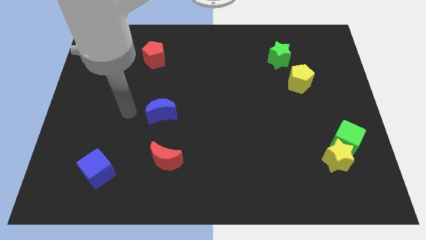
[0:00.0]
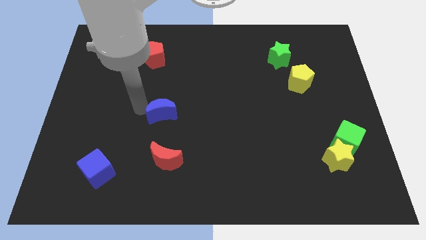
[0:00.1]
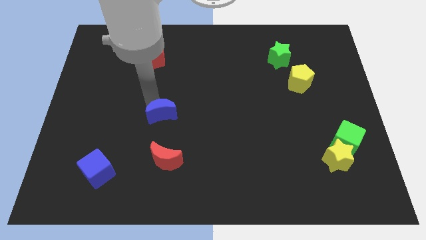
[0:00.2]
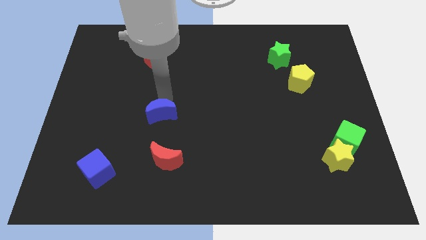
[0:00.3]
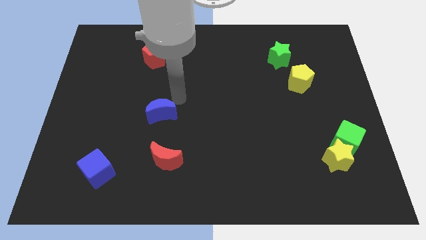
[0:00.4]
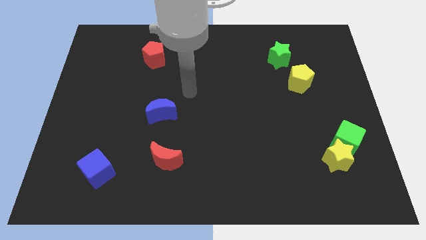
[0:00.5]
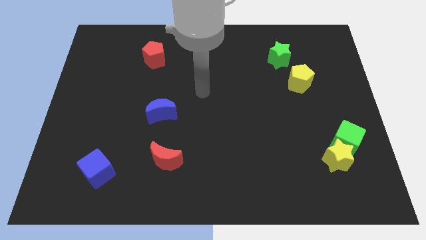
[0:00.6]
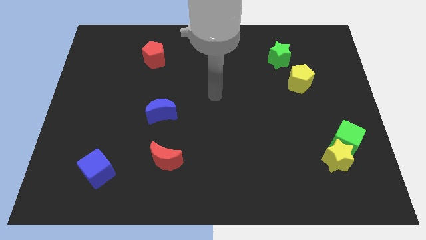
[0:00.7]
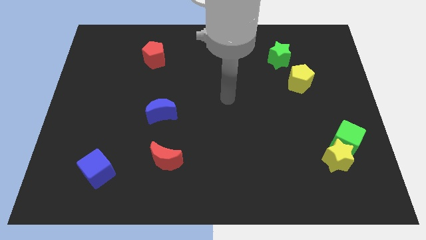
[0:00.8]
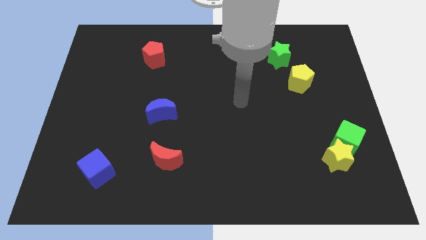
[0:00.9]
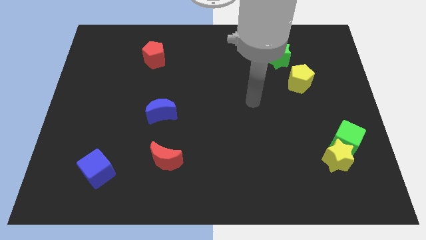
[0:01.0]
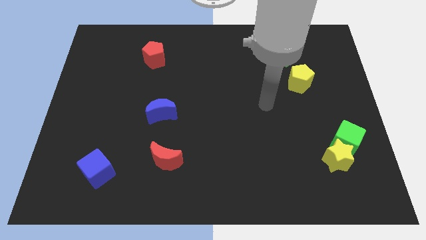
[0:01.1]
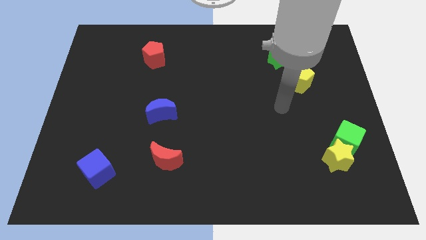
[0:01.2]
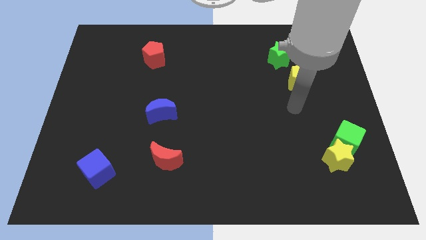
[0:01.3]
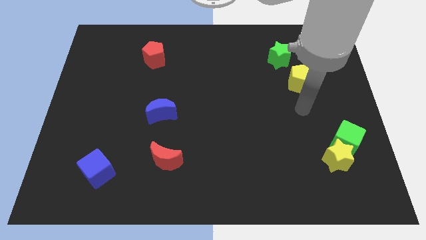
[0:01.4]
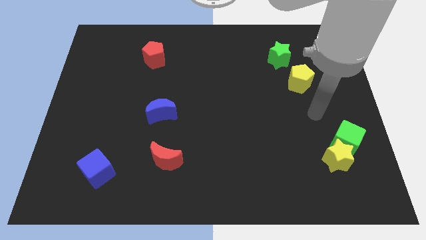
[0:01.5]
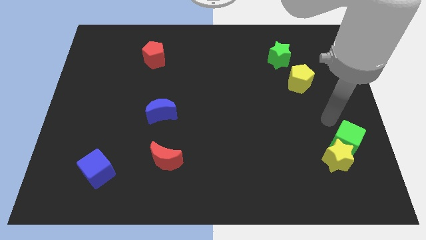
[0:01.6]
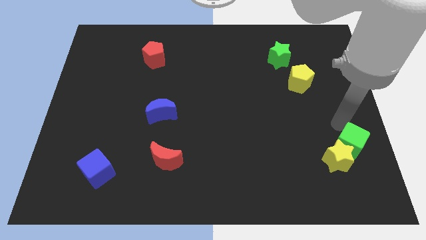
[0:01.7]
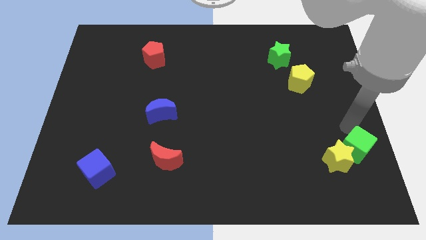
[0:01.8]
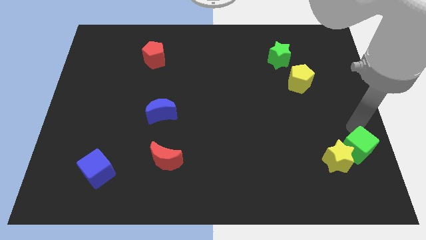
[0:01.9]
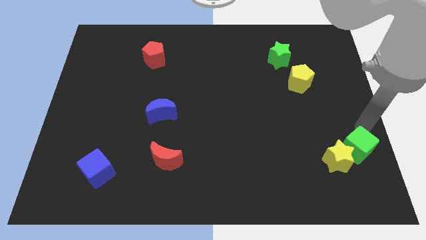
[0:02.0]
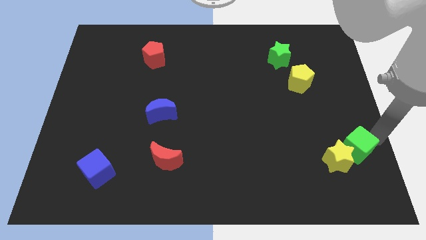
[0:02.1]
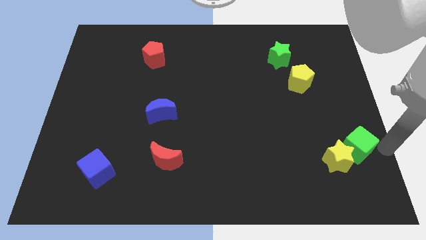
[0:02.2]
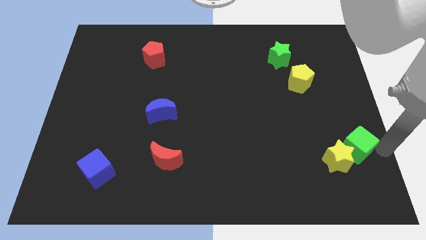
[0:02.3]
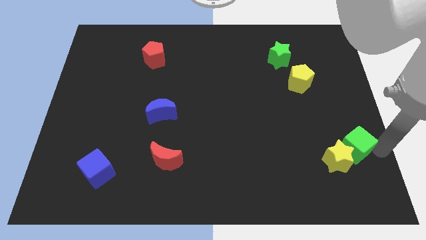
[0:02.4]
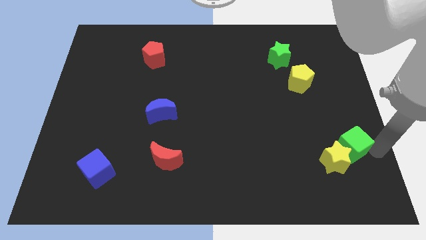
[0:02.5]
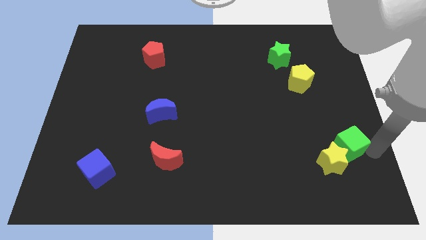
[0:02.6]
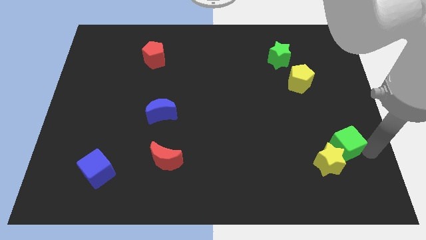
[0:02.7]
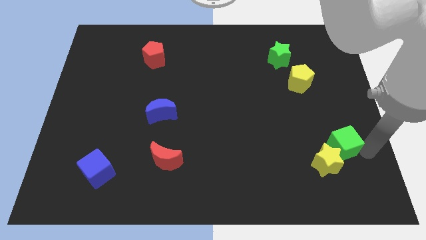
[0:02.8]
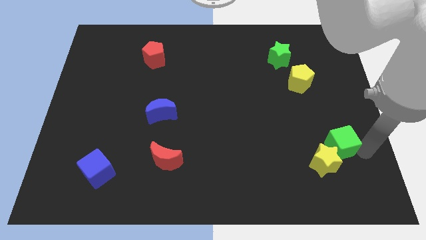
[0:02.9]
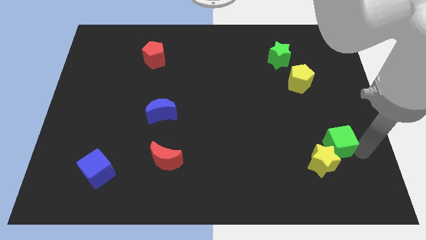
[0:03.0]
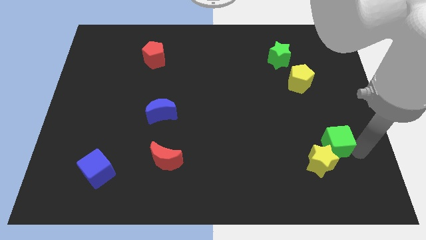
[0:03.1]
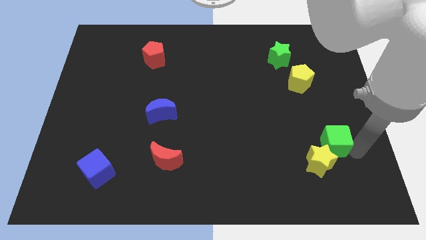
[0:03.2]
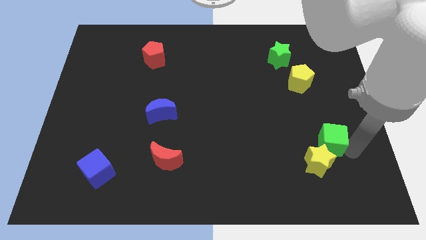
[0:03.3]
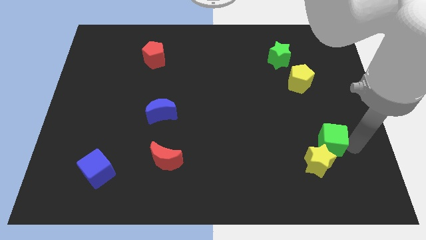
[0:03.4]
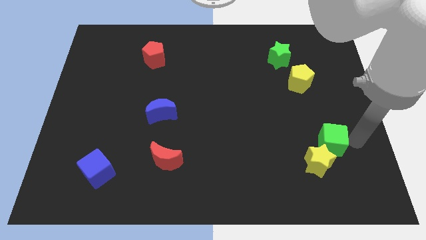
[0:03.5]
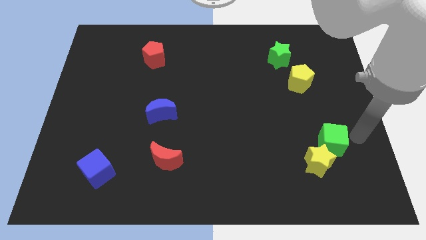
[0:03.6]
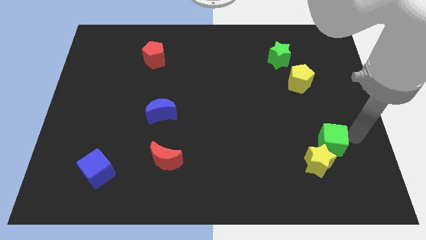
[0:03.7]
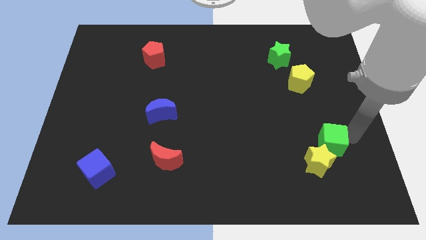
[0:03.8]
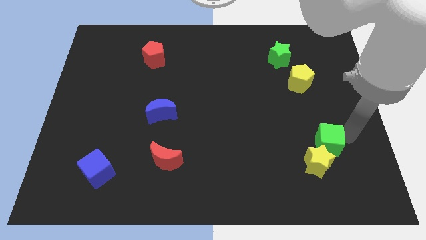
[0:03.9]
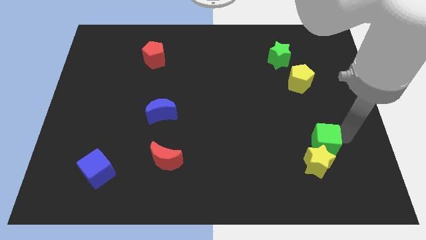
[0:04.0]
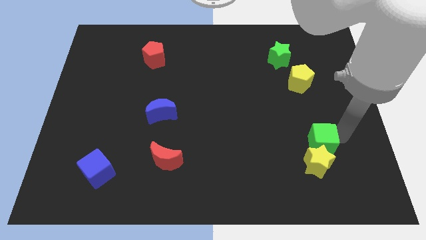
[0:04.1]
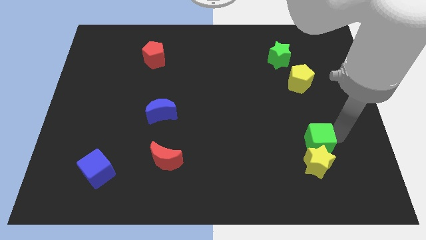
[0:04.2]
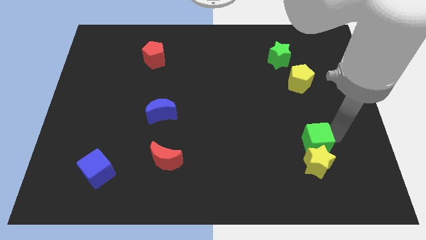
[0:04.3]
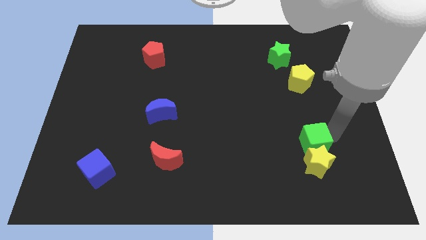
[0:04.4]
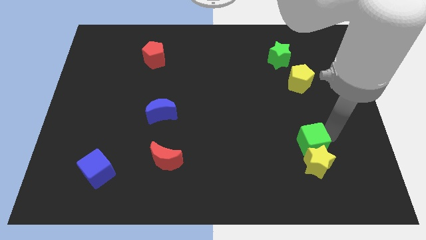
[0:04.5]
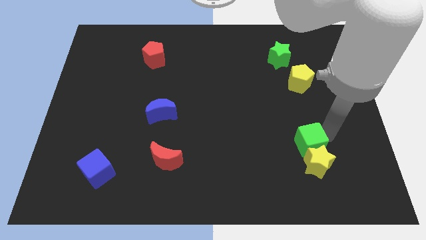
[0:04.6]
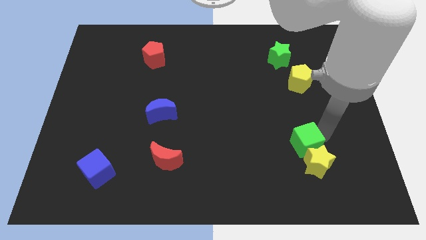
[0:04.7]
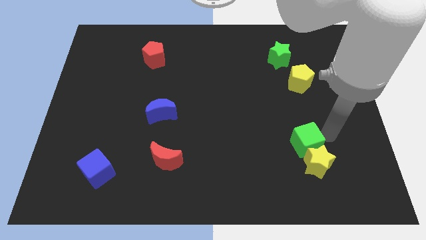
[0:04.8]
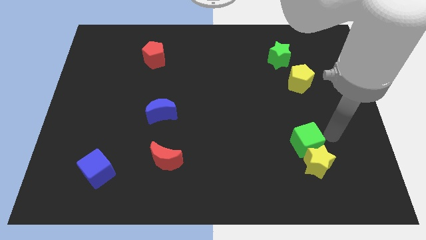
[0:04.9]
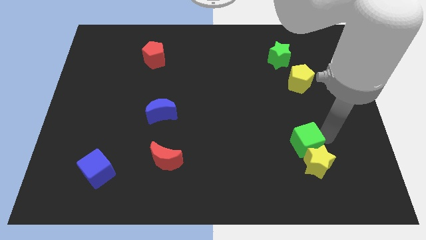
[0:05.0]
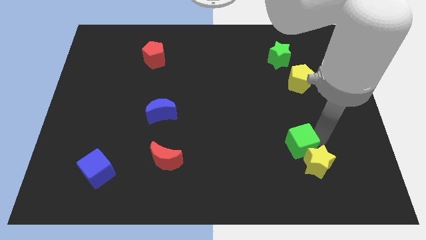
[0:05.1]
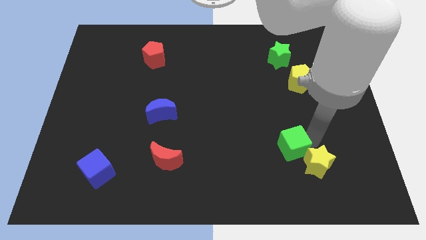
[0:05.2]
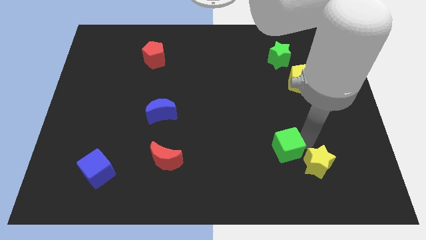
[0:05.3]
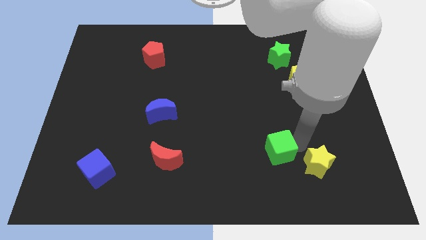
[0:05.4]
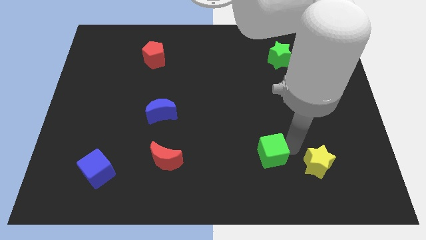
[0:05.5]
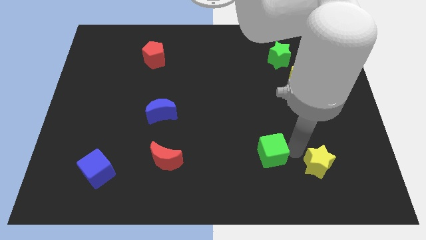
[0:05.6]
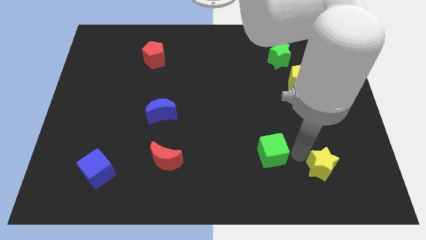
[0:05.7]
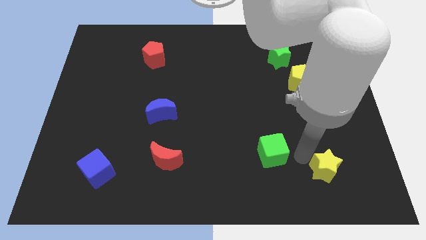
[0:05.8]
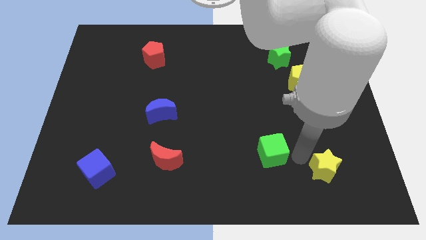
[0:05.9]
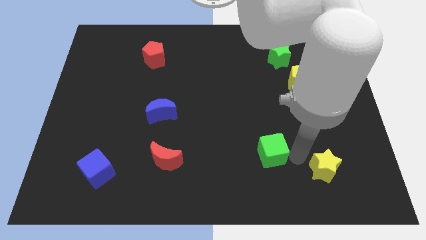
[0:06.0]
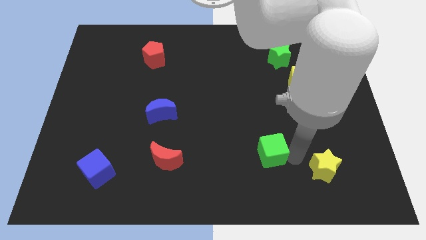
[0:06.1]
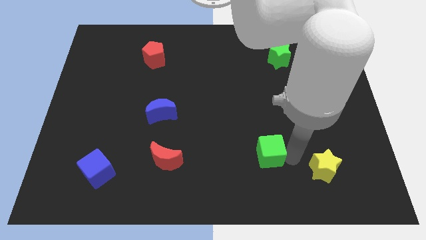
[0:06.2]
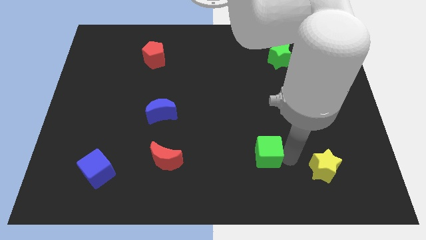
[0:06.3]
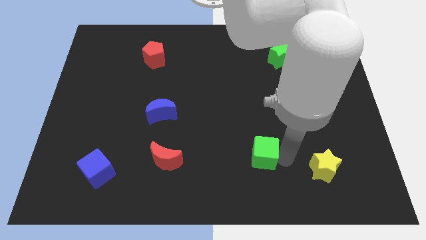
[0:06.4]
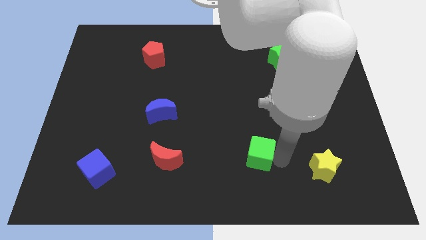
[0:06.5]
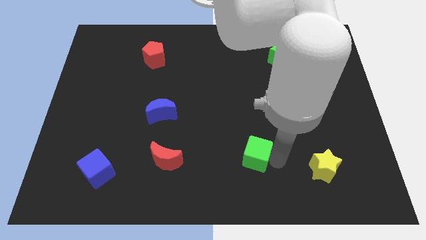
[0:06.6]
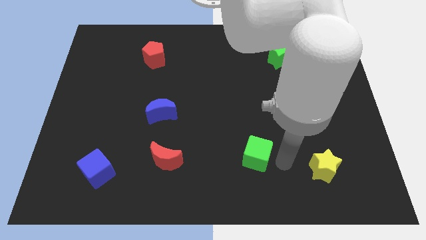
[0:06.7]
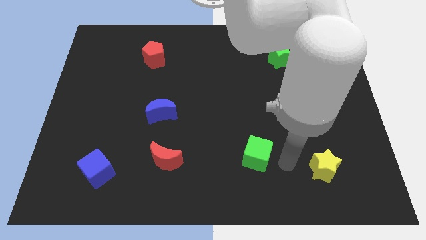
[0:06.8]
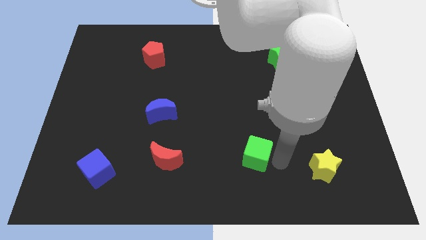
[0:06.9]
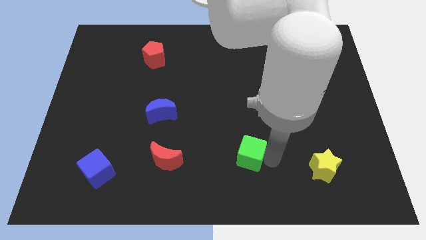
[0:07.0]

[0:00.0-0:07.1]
move the green cube to the left

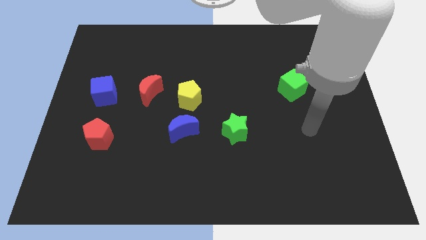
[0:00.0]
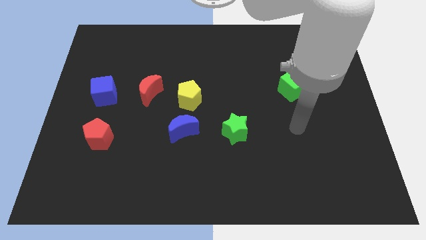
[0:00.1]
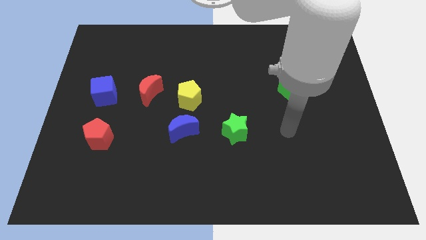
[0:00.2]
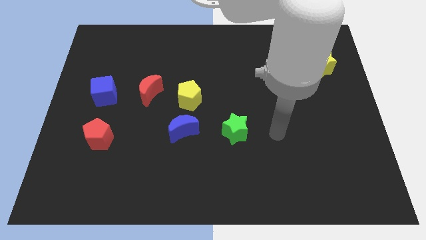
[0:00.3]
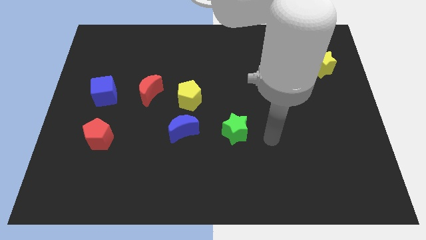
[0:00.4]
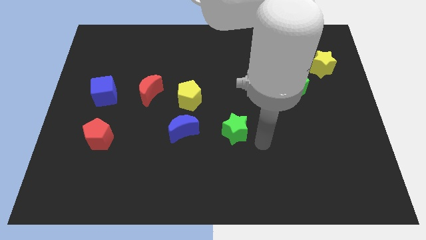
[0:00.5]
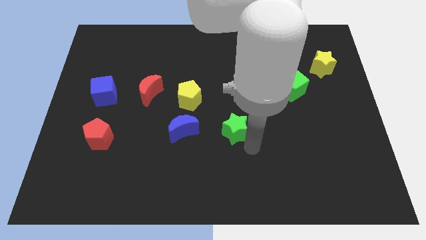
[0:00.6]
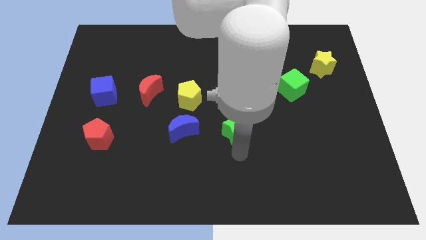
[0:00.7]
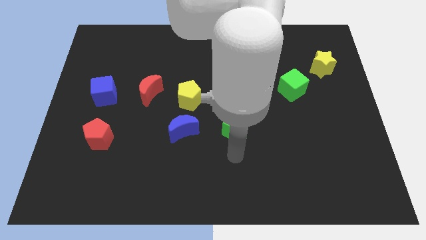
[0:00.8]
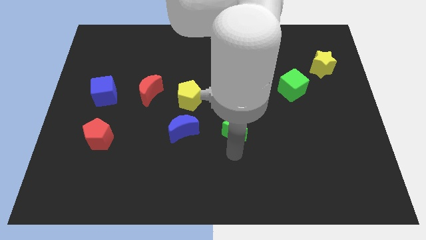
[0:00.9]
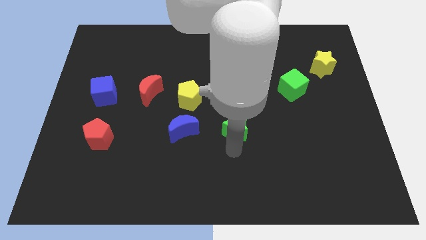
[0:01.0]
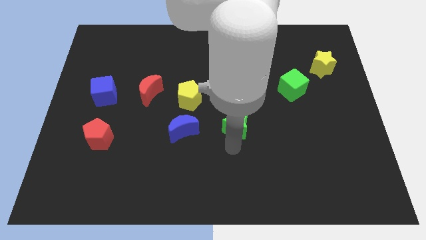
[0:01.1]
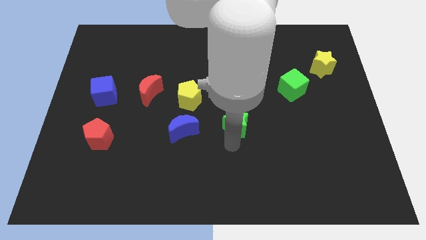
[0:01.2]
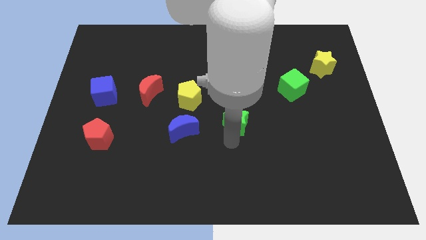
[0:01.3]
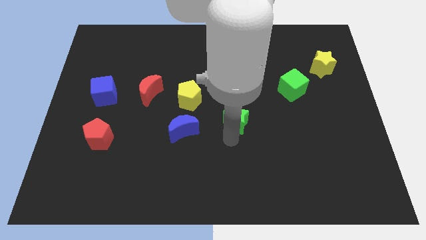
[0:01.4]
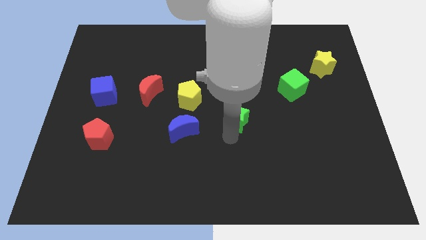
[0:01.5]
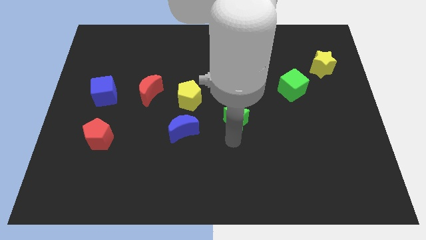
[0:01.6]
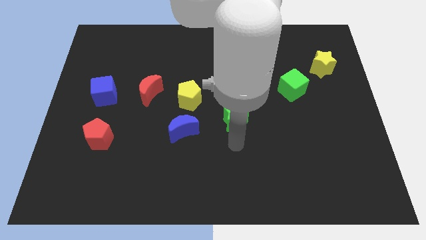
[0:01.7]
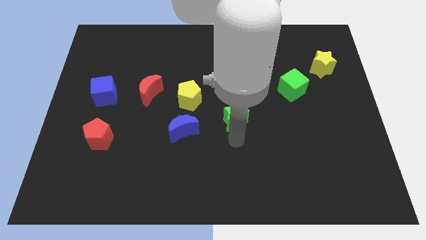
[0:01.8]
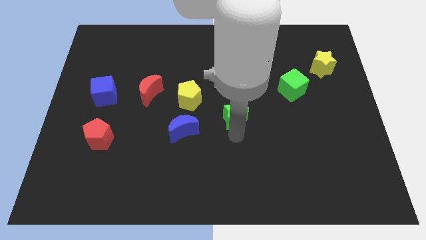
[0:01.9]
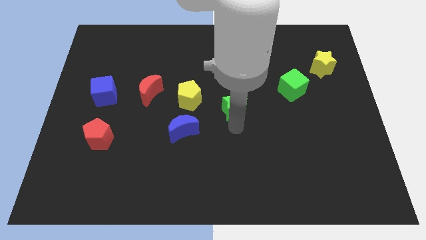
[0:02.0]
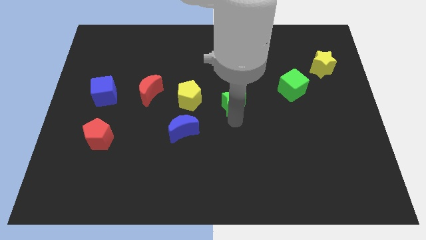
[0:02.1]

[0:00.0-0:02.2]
slide the green star a little up
